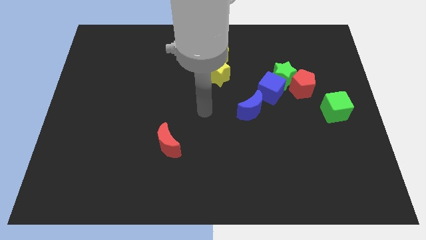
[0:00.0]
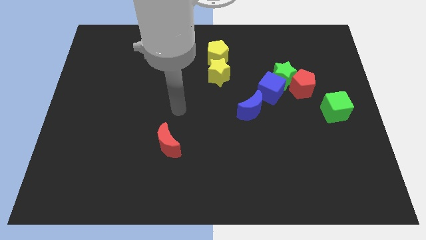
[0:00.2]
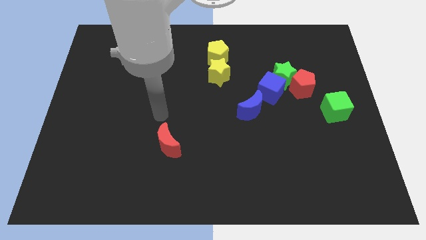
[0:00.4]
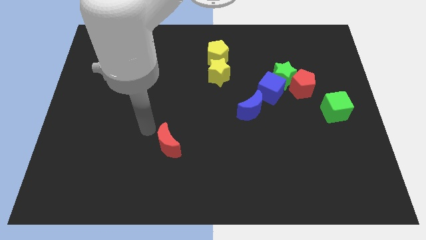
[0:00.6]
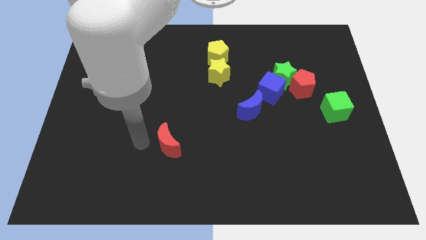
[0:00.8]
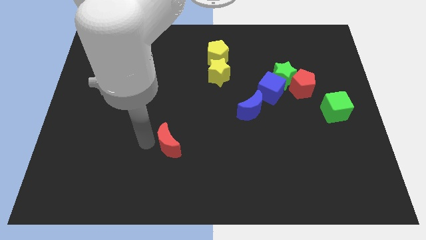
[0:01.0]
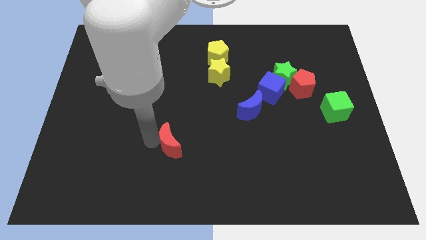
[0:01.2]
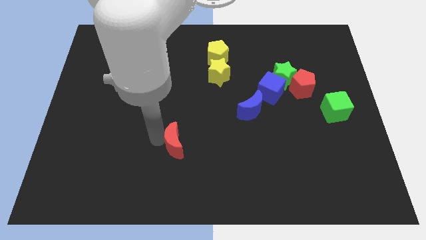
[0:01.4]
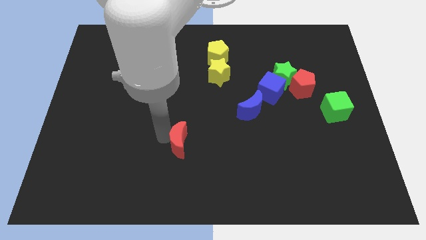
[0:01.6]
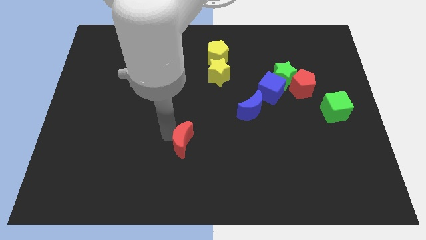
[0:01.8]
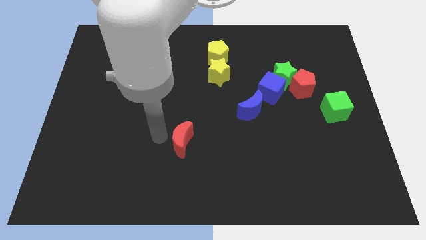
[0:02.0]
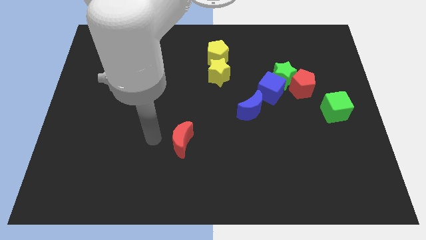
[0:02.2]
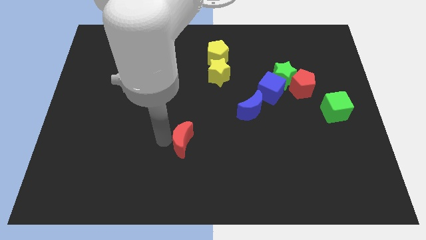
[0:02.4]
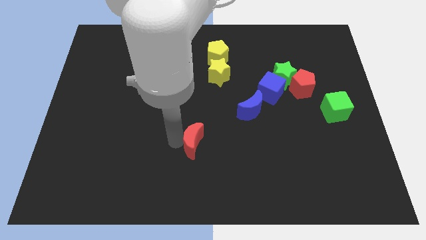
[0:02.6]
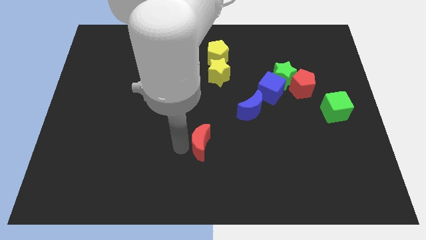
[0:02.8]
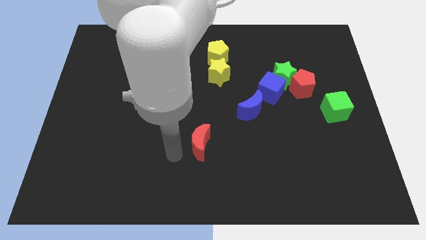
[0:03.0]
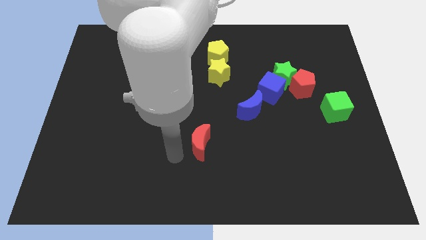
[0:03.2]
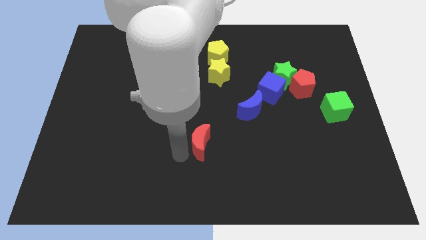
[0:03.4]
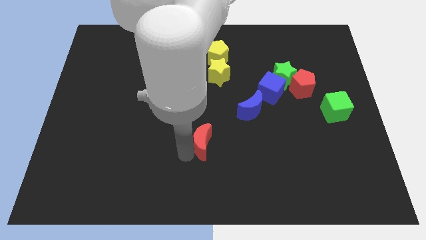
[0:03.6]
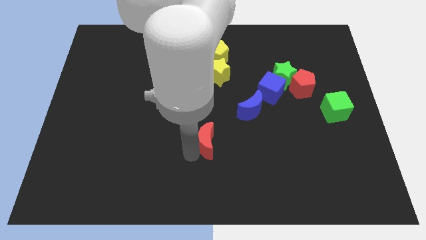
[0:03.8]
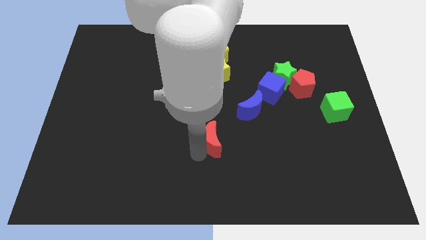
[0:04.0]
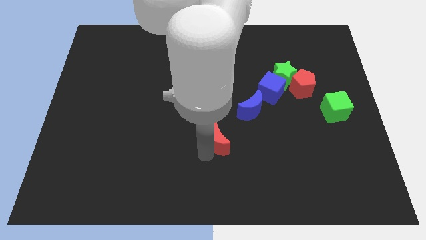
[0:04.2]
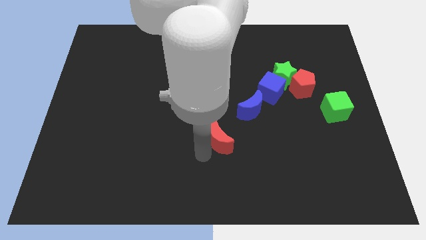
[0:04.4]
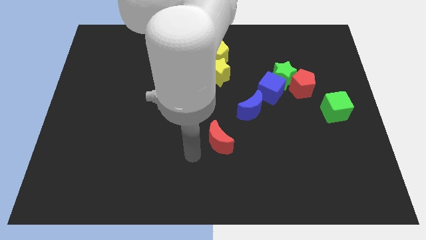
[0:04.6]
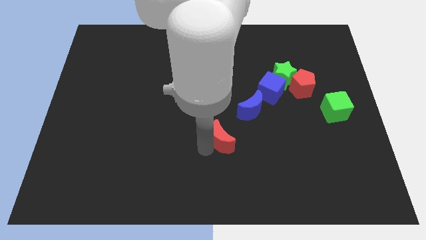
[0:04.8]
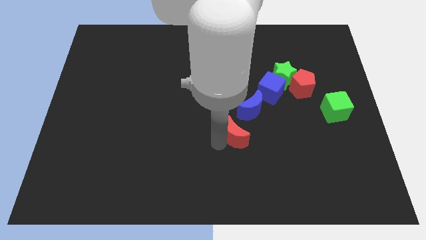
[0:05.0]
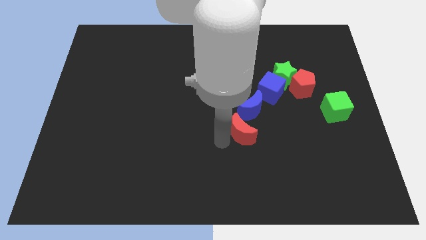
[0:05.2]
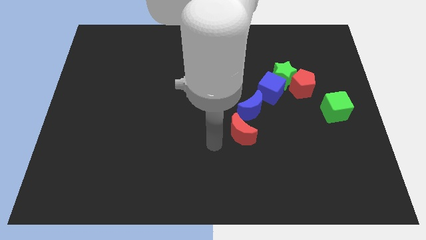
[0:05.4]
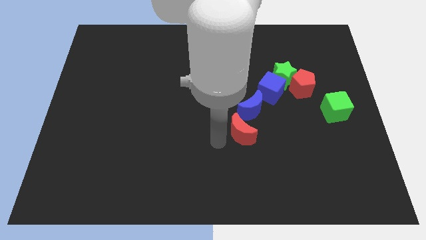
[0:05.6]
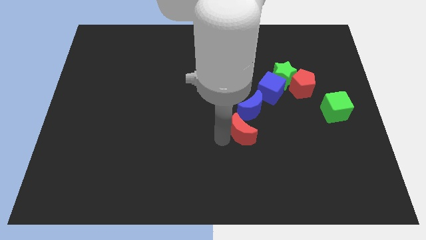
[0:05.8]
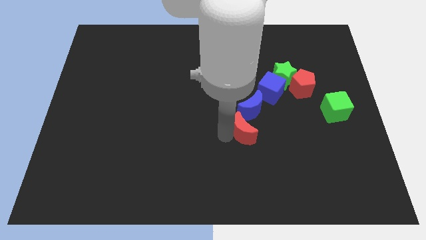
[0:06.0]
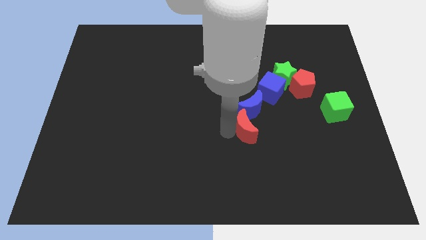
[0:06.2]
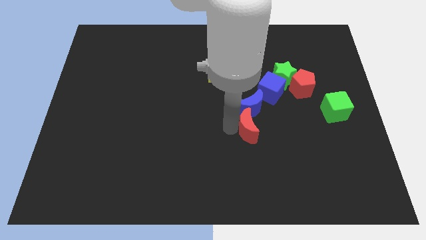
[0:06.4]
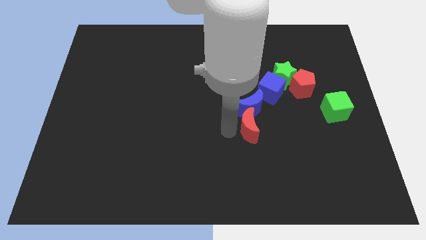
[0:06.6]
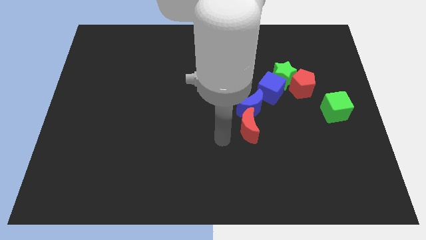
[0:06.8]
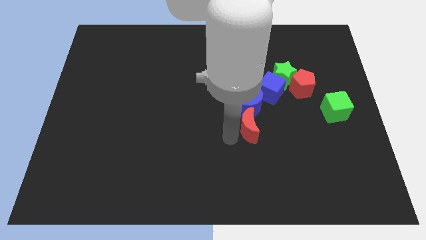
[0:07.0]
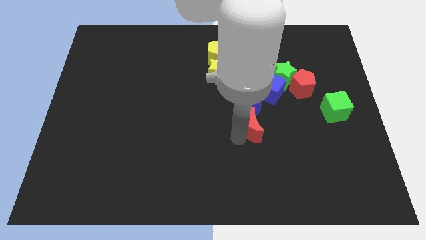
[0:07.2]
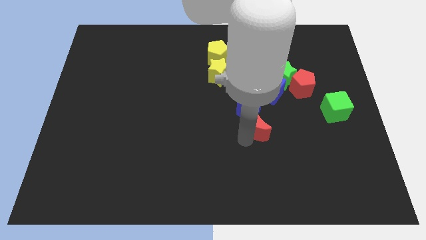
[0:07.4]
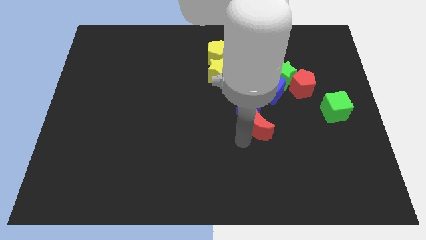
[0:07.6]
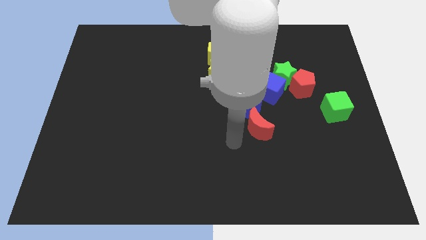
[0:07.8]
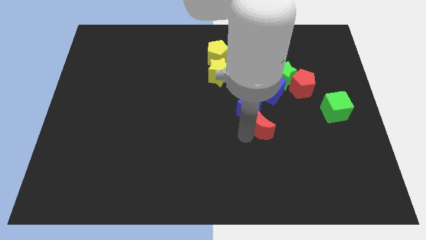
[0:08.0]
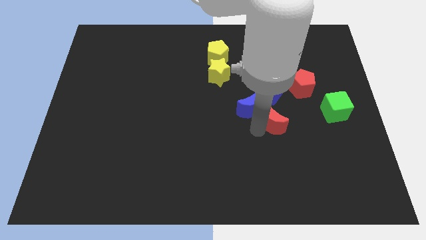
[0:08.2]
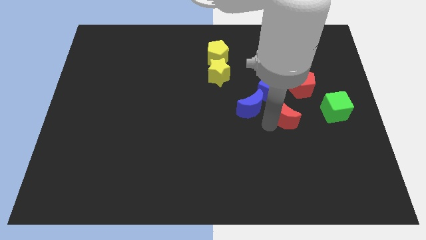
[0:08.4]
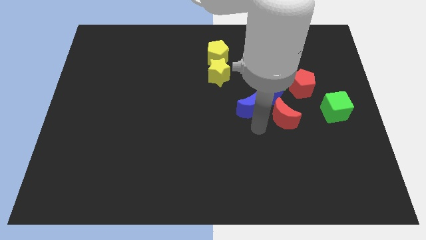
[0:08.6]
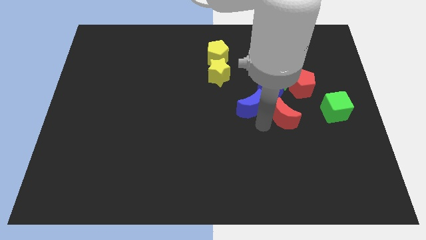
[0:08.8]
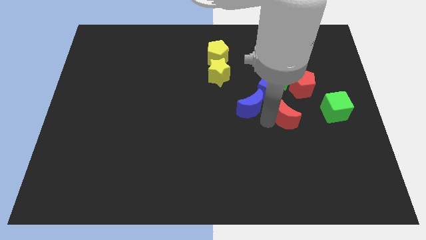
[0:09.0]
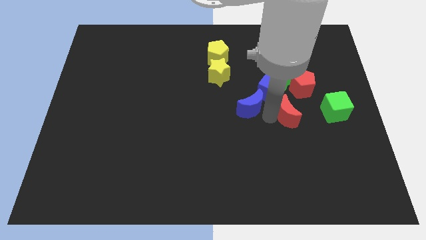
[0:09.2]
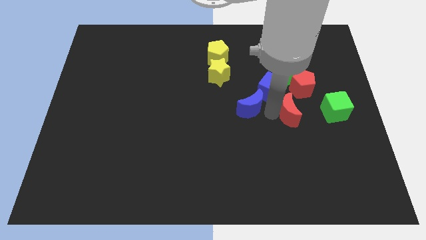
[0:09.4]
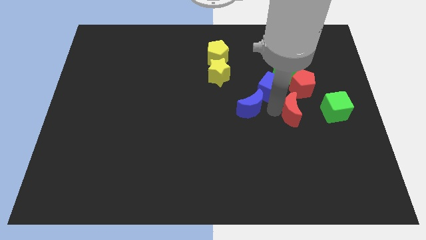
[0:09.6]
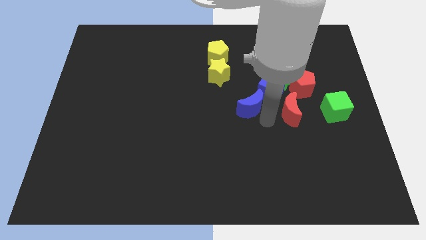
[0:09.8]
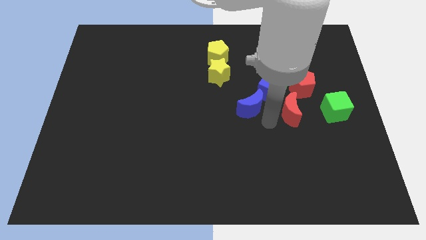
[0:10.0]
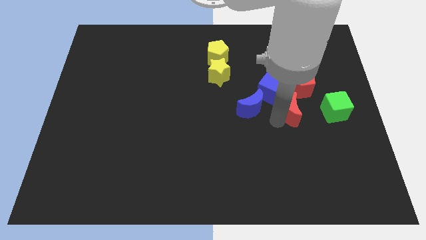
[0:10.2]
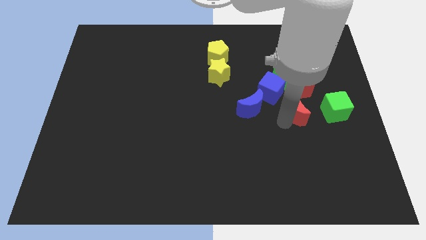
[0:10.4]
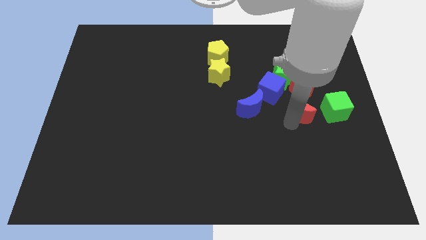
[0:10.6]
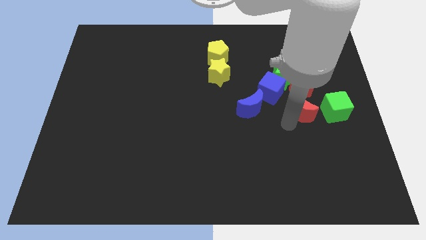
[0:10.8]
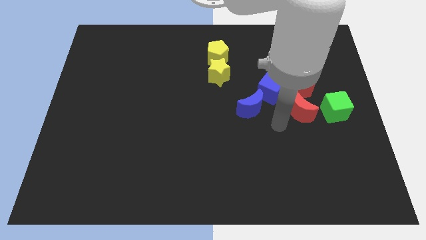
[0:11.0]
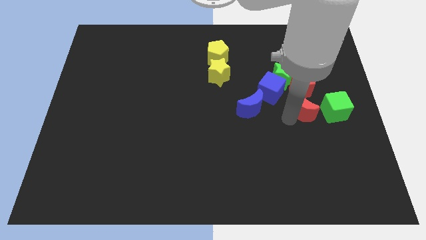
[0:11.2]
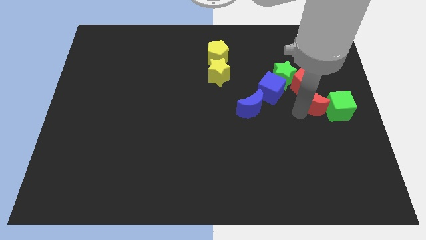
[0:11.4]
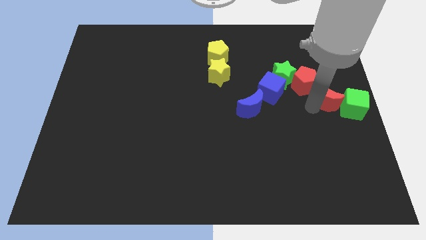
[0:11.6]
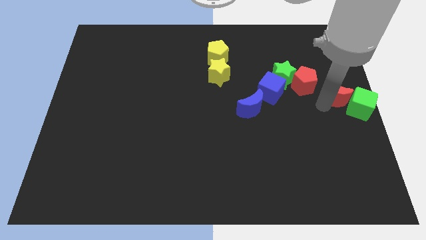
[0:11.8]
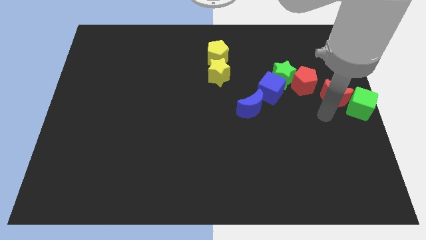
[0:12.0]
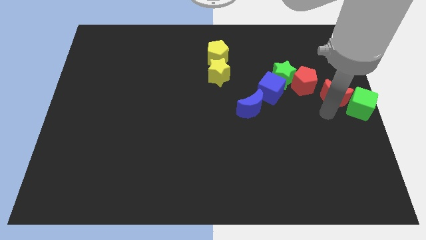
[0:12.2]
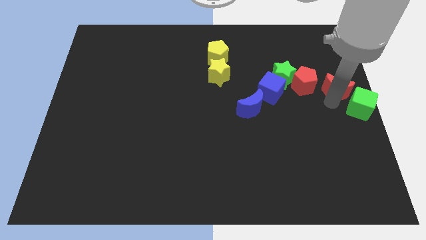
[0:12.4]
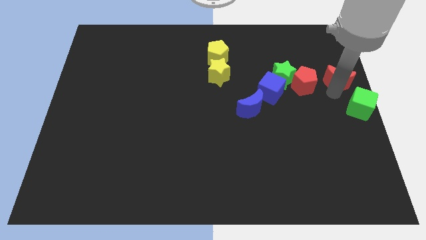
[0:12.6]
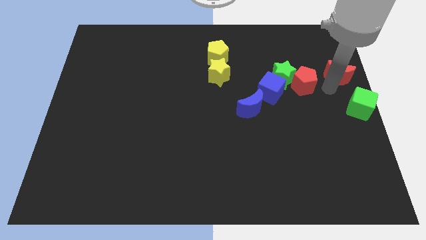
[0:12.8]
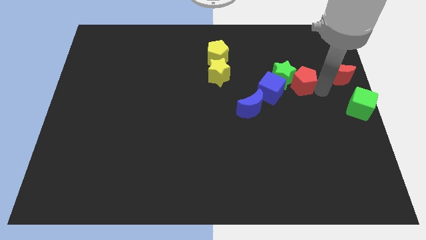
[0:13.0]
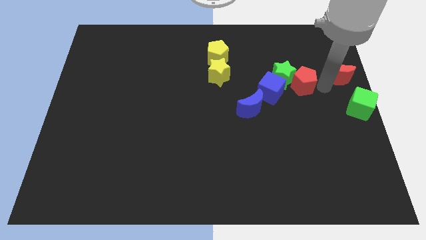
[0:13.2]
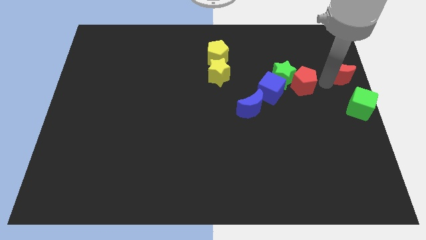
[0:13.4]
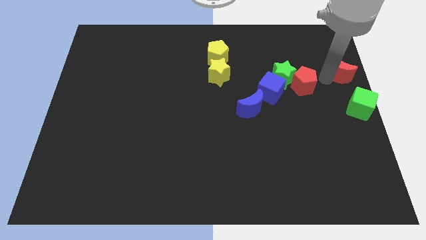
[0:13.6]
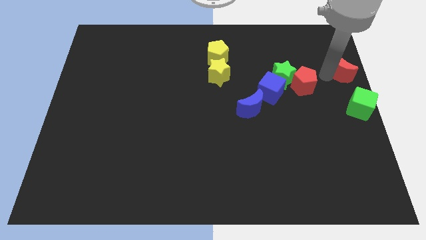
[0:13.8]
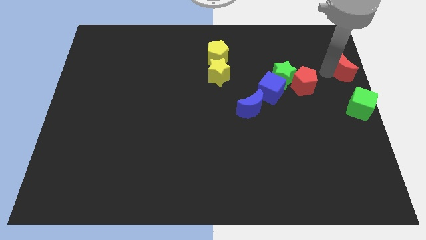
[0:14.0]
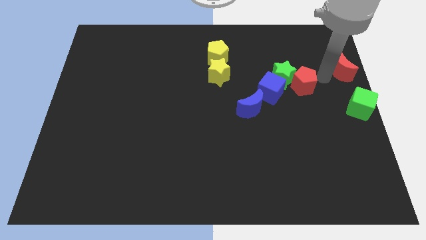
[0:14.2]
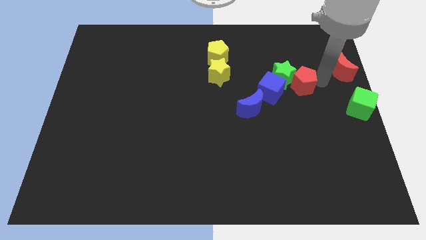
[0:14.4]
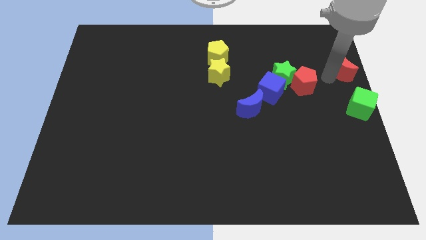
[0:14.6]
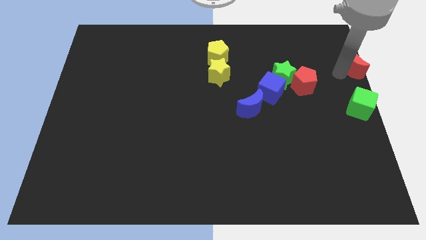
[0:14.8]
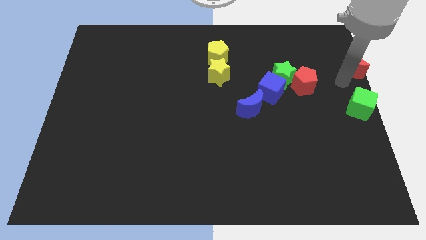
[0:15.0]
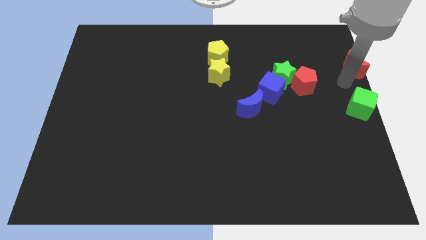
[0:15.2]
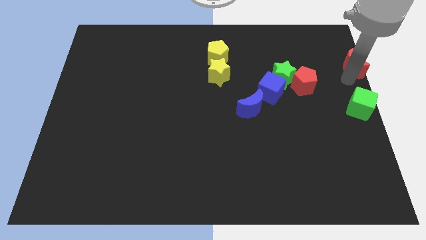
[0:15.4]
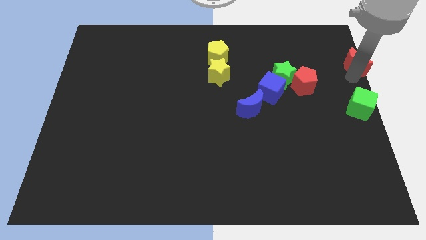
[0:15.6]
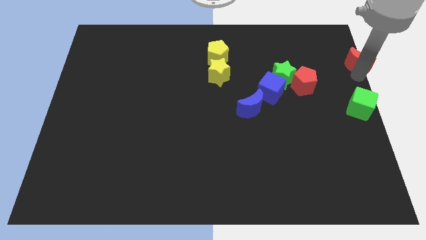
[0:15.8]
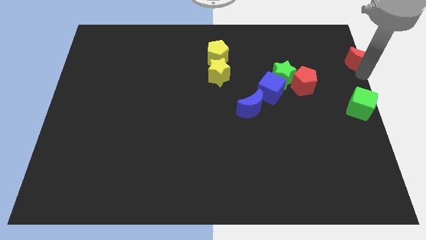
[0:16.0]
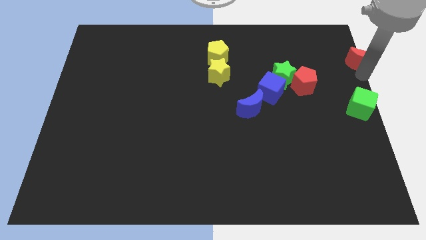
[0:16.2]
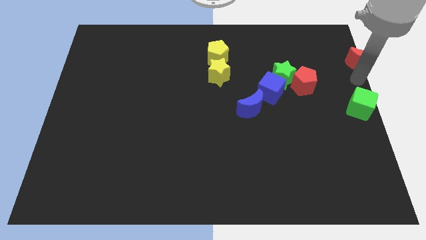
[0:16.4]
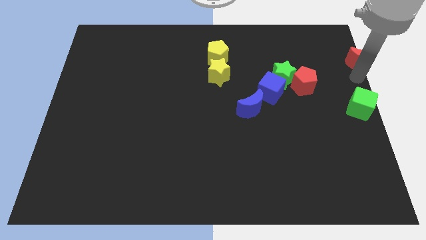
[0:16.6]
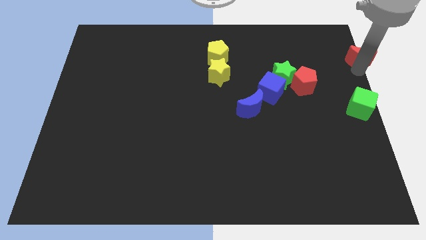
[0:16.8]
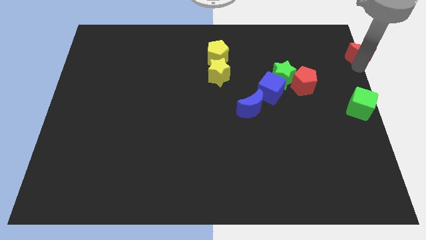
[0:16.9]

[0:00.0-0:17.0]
push the red moon to the upper right corner
